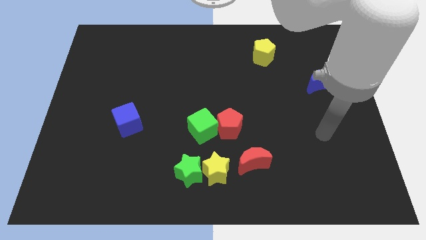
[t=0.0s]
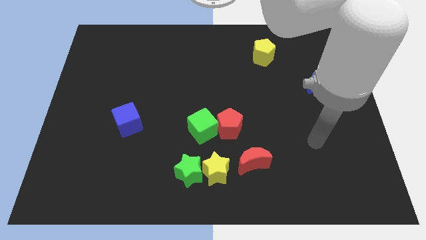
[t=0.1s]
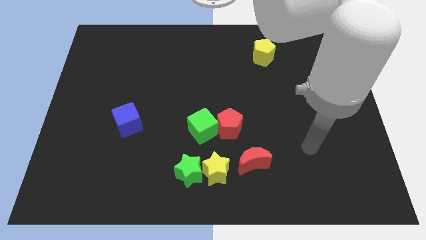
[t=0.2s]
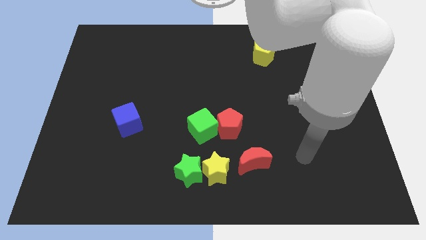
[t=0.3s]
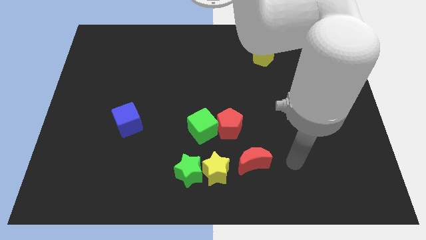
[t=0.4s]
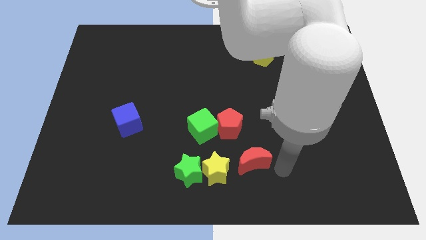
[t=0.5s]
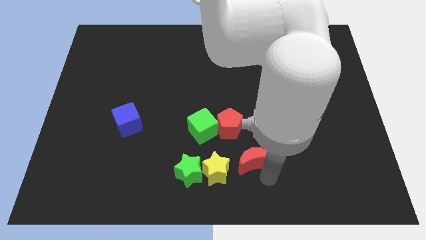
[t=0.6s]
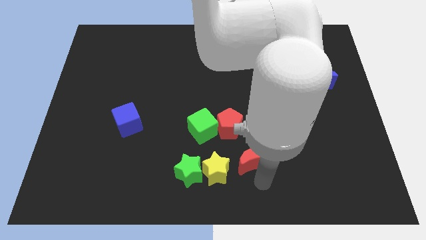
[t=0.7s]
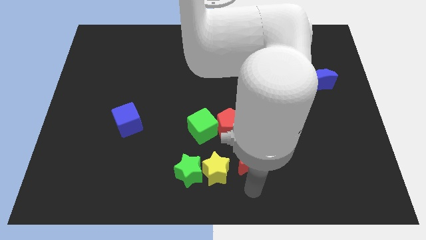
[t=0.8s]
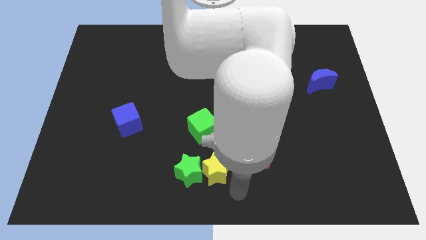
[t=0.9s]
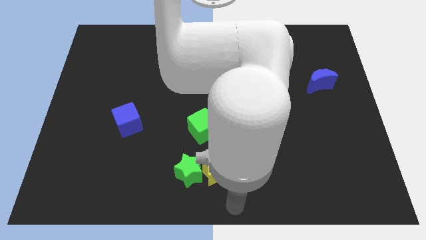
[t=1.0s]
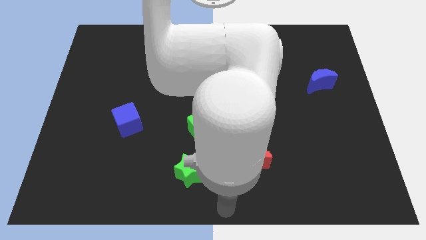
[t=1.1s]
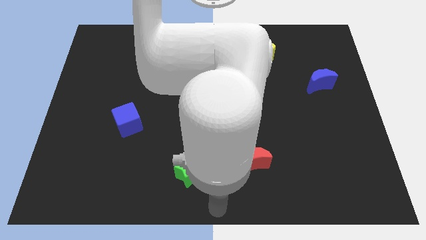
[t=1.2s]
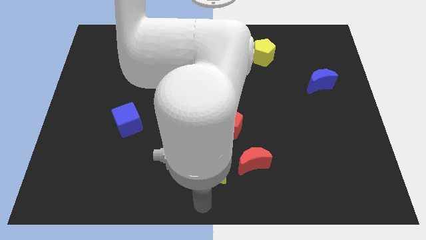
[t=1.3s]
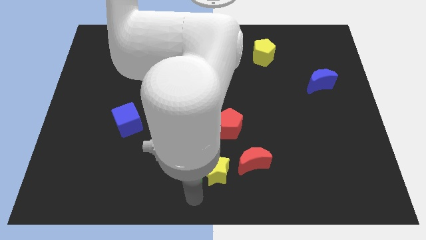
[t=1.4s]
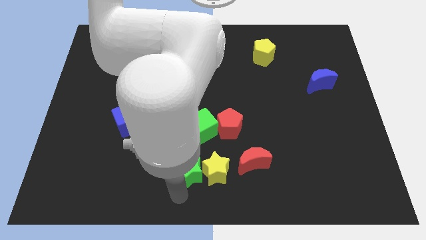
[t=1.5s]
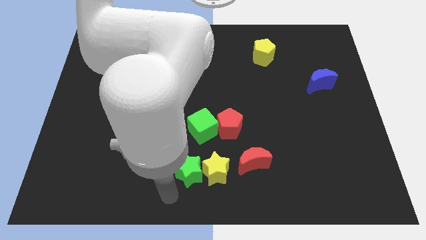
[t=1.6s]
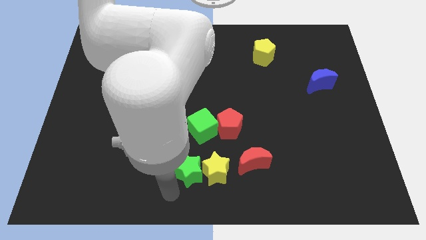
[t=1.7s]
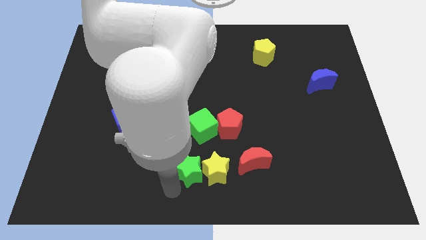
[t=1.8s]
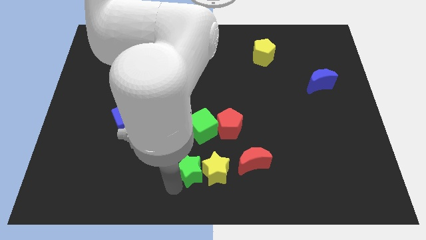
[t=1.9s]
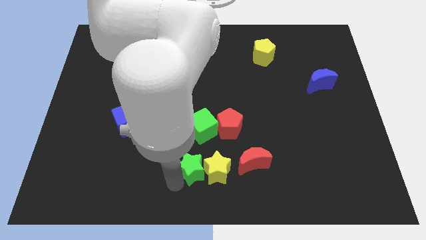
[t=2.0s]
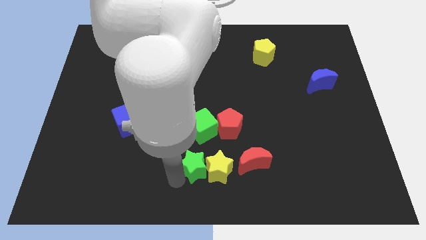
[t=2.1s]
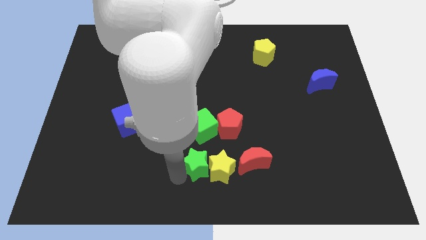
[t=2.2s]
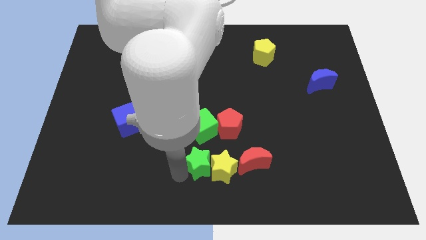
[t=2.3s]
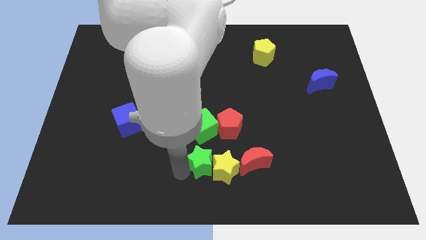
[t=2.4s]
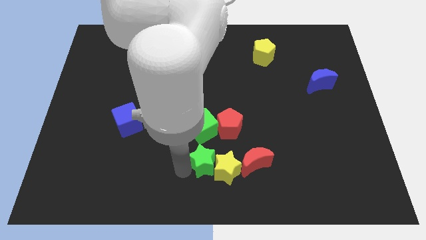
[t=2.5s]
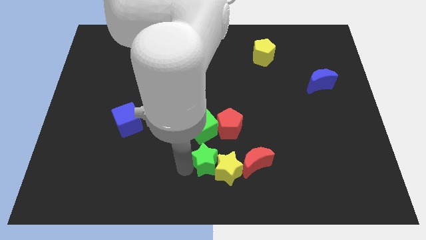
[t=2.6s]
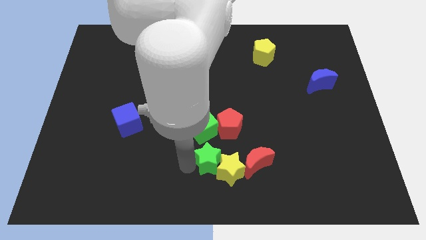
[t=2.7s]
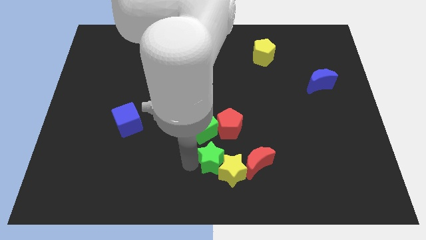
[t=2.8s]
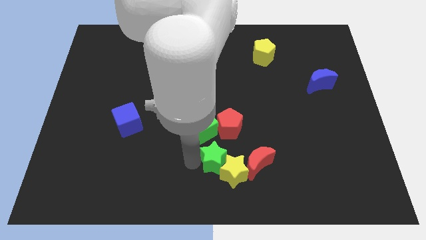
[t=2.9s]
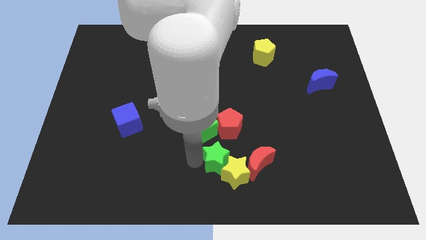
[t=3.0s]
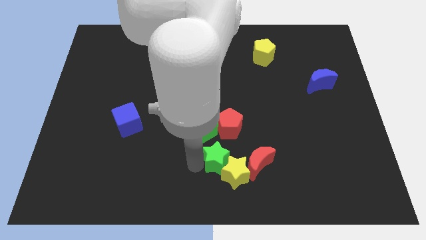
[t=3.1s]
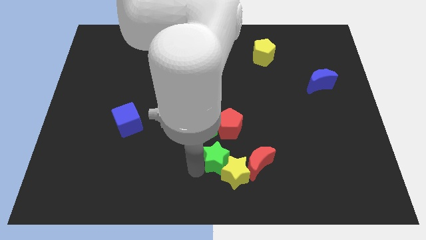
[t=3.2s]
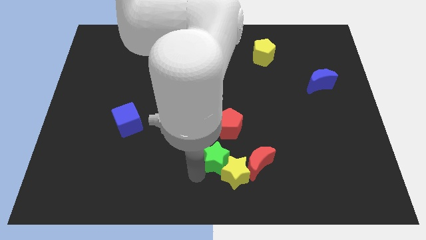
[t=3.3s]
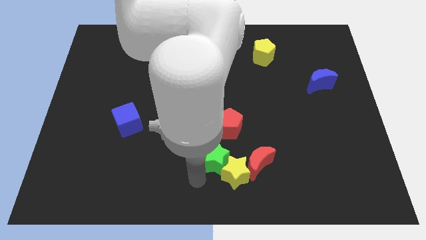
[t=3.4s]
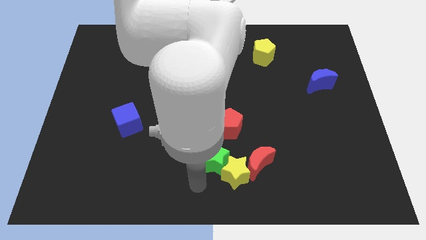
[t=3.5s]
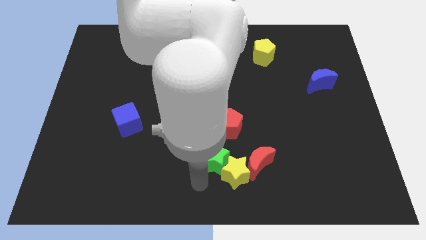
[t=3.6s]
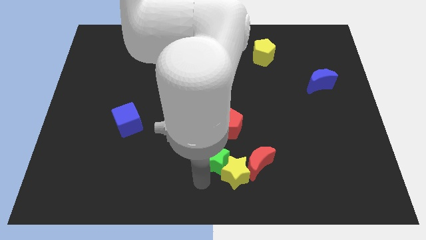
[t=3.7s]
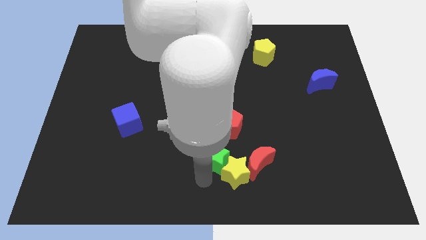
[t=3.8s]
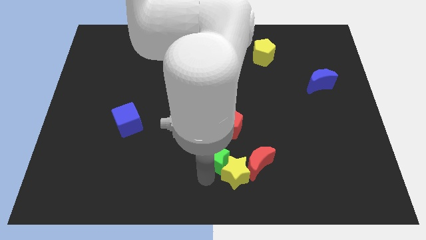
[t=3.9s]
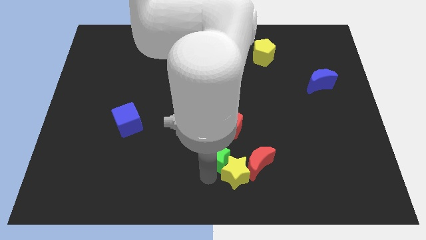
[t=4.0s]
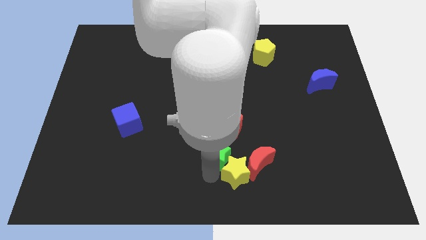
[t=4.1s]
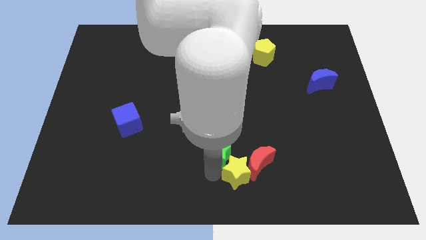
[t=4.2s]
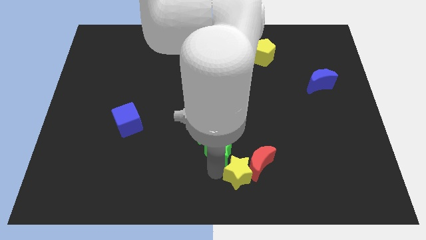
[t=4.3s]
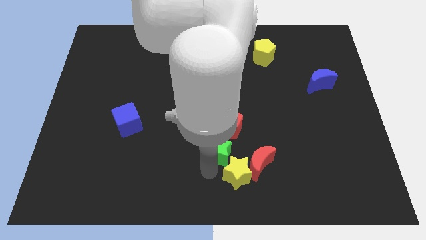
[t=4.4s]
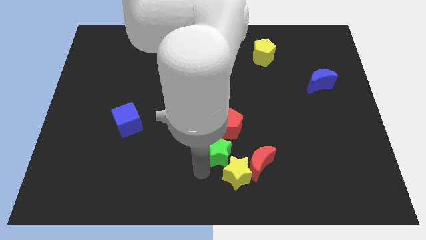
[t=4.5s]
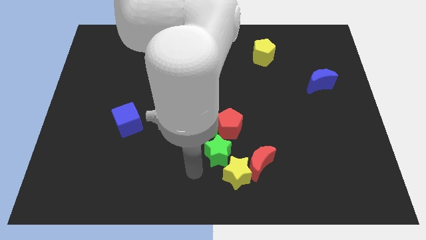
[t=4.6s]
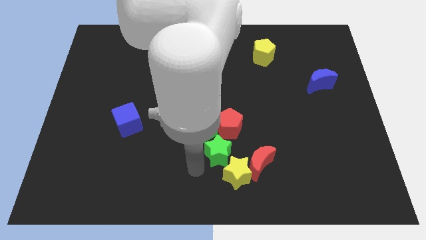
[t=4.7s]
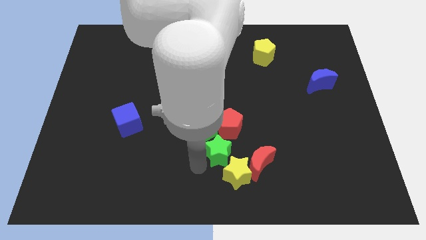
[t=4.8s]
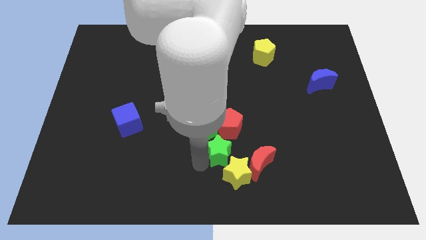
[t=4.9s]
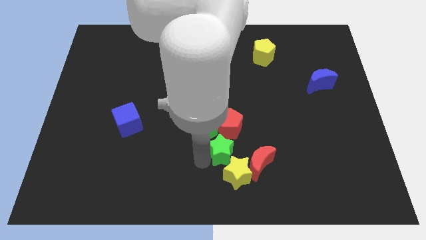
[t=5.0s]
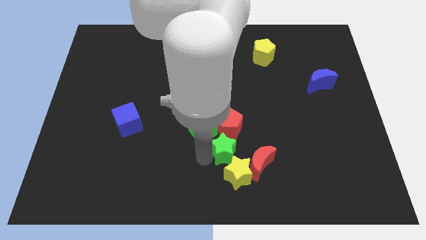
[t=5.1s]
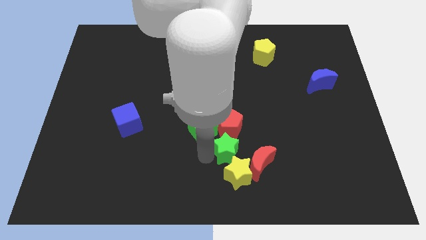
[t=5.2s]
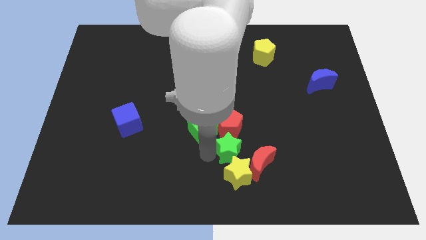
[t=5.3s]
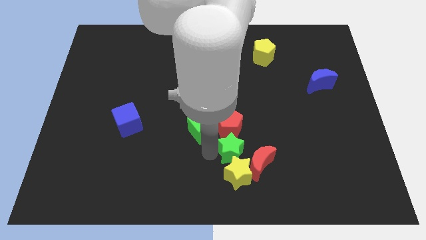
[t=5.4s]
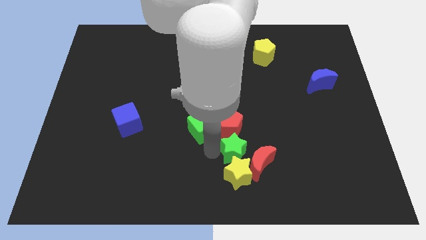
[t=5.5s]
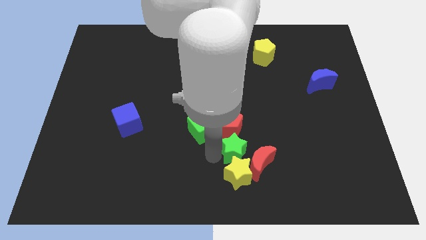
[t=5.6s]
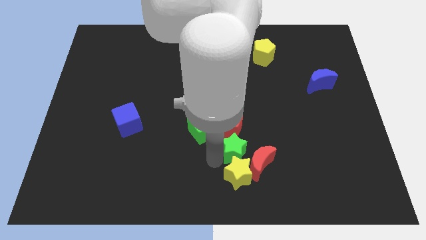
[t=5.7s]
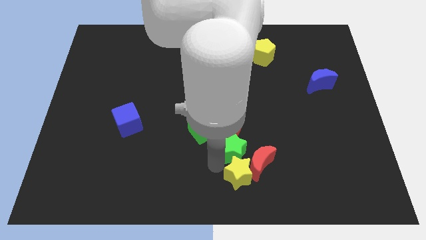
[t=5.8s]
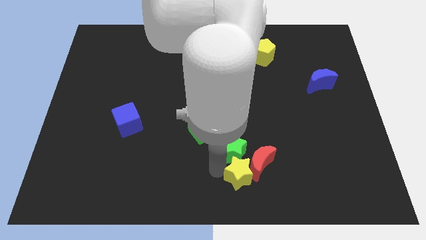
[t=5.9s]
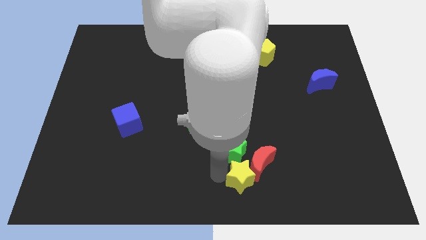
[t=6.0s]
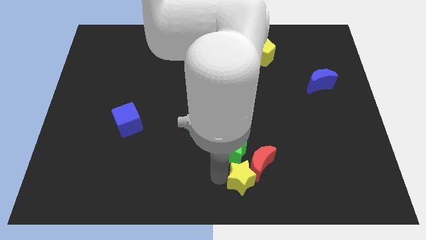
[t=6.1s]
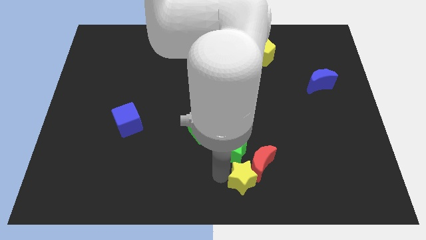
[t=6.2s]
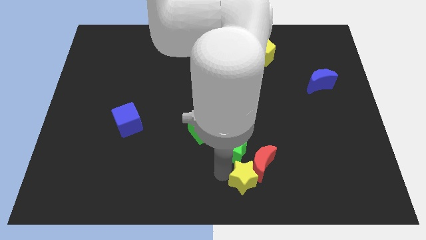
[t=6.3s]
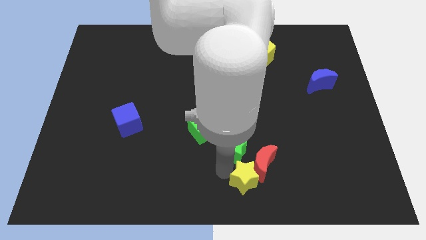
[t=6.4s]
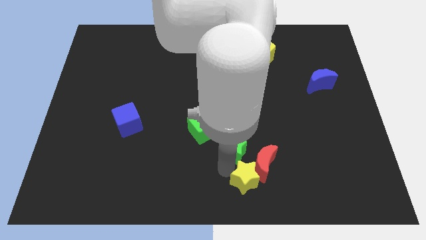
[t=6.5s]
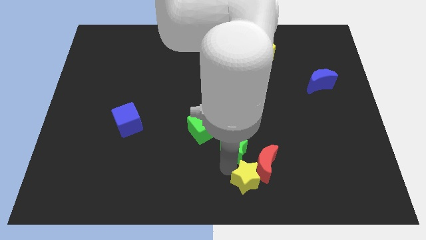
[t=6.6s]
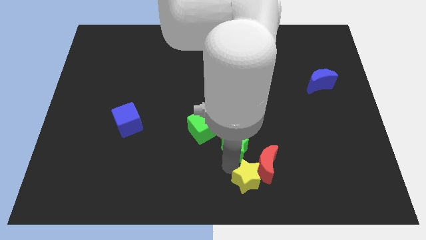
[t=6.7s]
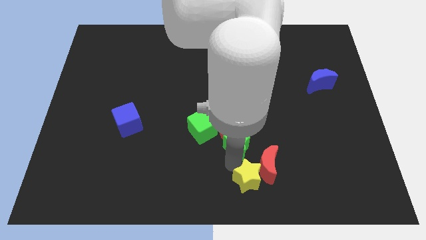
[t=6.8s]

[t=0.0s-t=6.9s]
slide the green star to the right side of the green cube

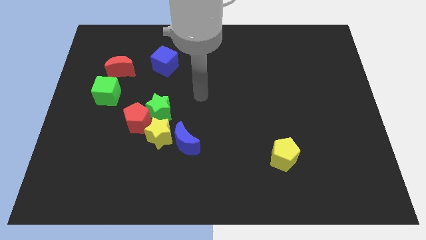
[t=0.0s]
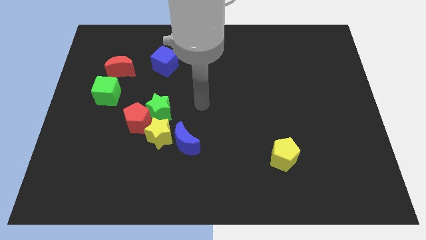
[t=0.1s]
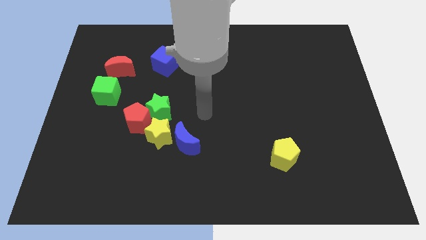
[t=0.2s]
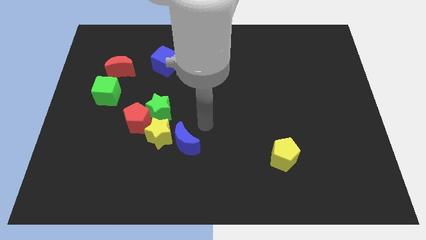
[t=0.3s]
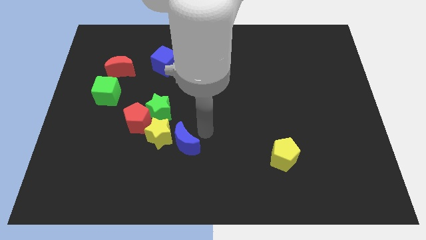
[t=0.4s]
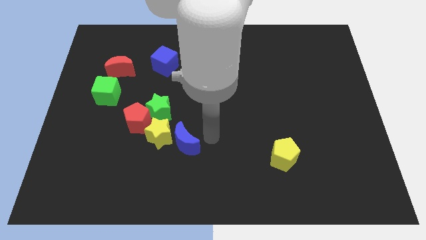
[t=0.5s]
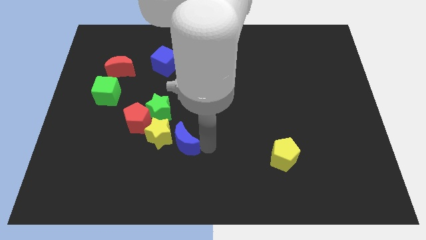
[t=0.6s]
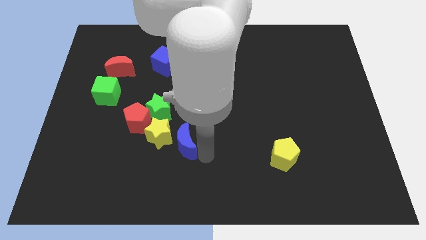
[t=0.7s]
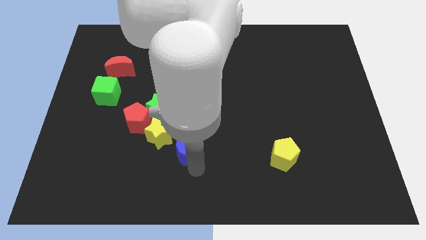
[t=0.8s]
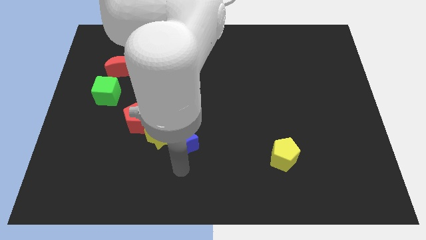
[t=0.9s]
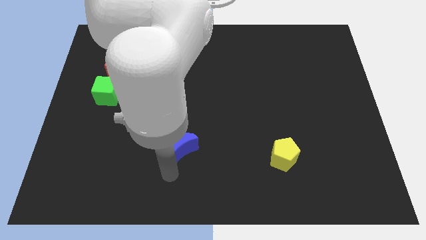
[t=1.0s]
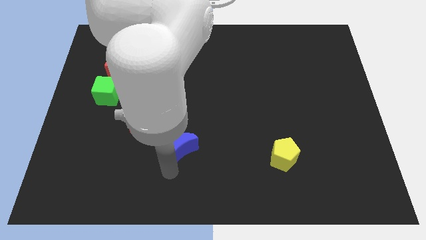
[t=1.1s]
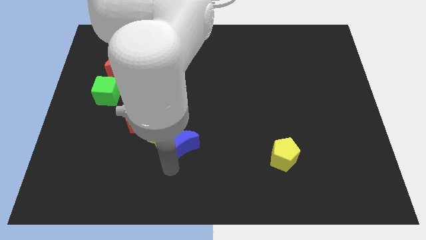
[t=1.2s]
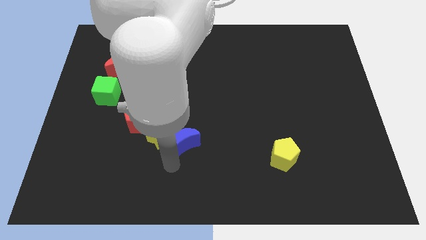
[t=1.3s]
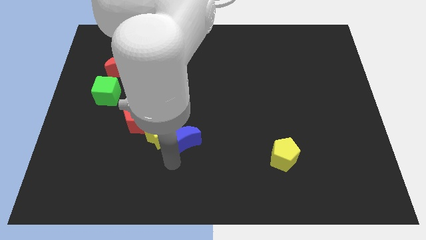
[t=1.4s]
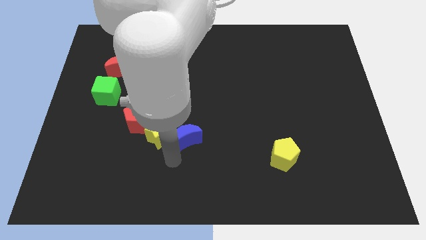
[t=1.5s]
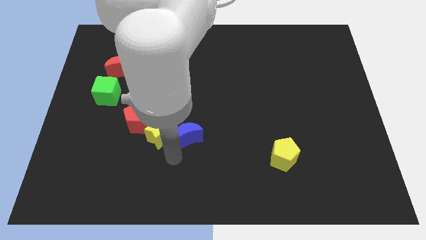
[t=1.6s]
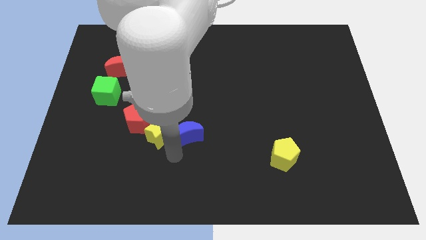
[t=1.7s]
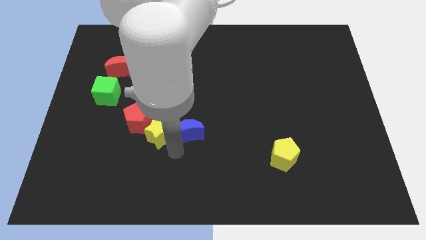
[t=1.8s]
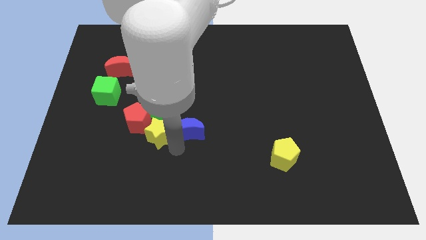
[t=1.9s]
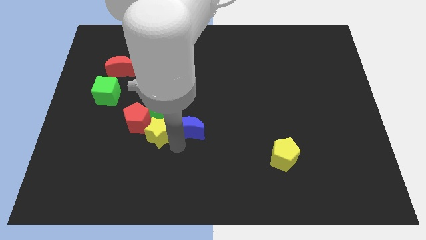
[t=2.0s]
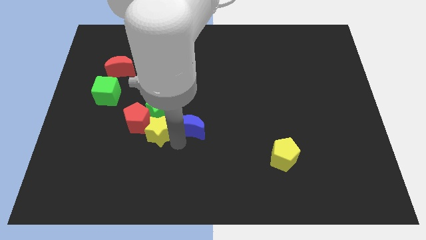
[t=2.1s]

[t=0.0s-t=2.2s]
push the blue moon right of the green star
